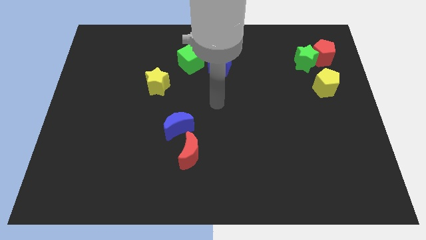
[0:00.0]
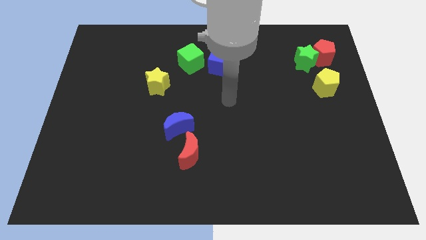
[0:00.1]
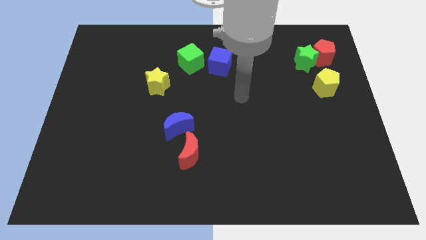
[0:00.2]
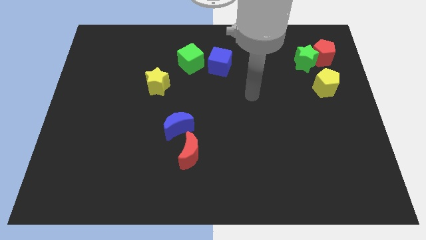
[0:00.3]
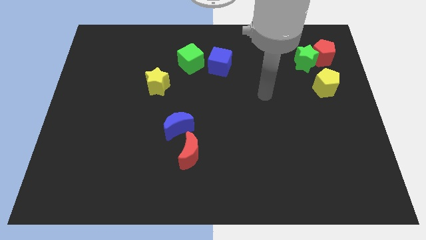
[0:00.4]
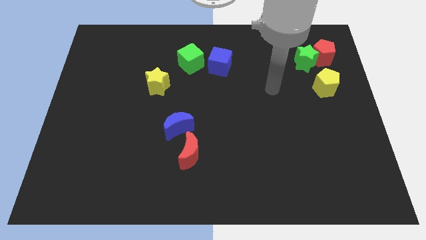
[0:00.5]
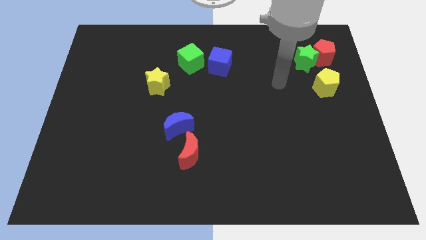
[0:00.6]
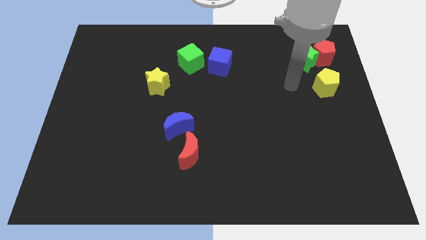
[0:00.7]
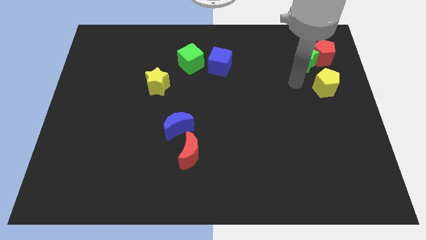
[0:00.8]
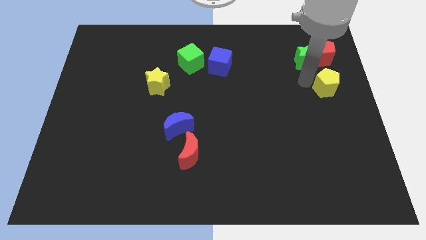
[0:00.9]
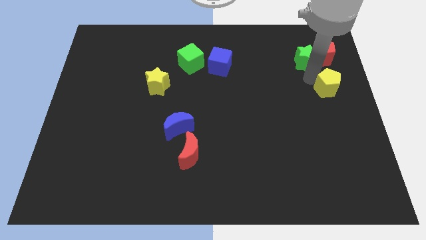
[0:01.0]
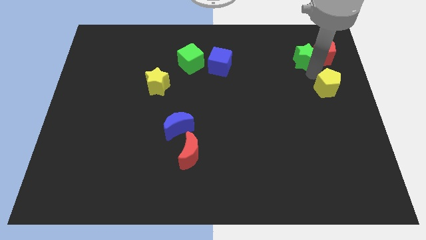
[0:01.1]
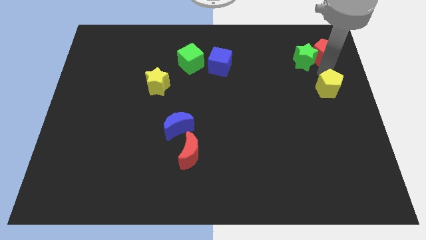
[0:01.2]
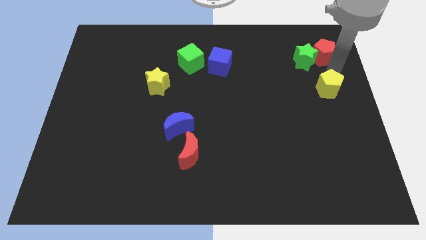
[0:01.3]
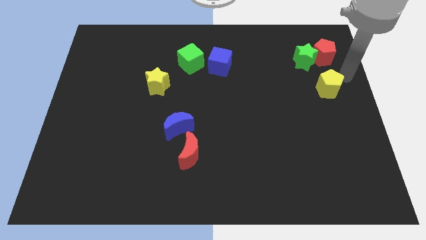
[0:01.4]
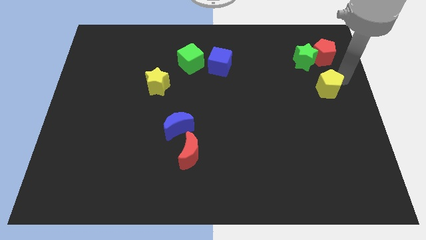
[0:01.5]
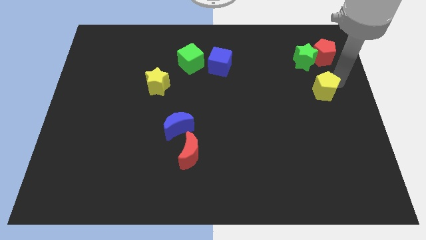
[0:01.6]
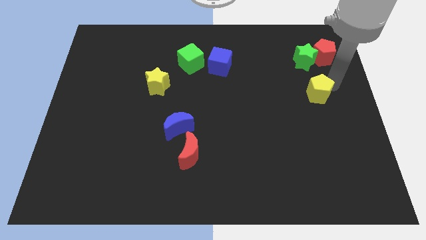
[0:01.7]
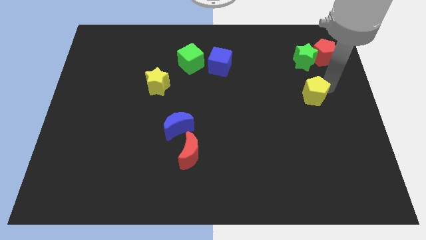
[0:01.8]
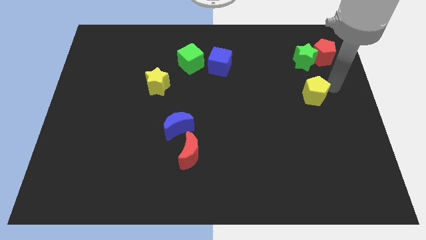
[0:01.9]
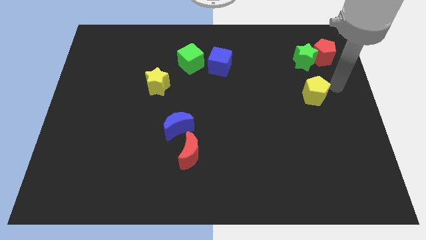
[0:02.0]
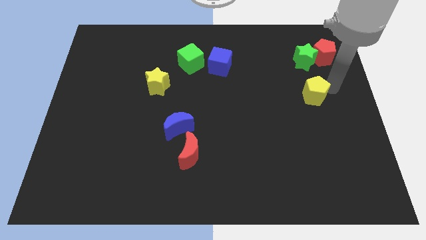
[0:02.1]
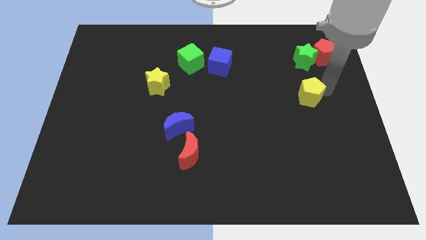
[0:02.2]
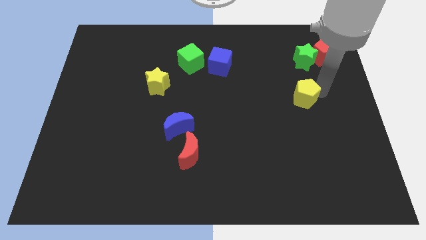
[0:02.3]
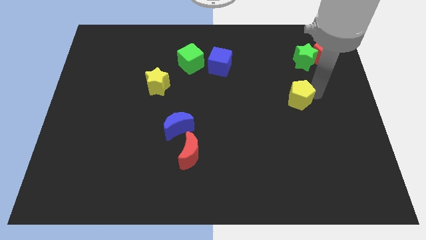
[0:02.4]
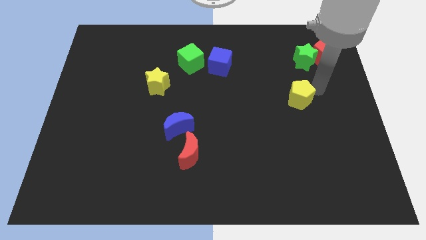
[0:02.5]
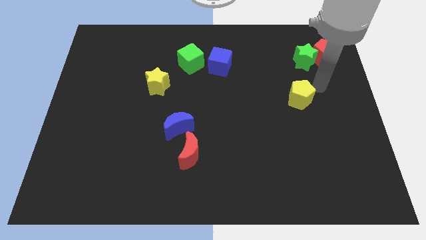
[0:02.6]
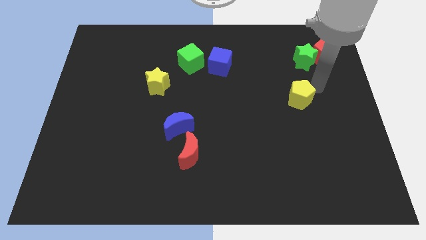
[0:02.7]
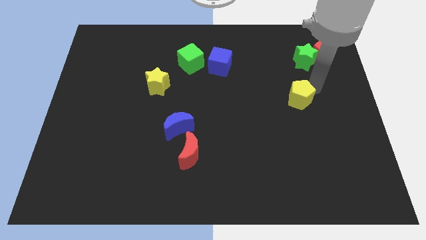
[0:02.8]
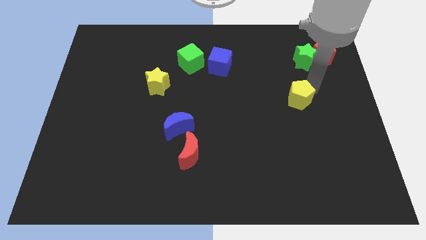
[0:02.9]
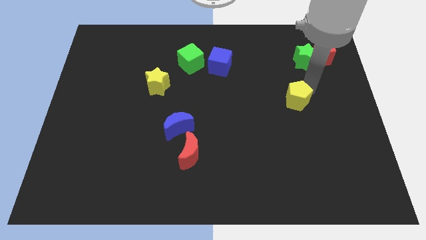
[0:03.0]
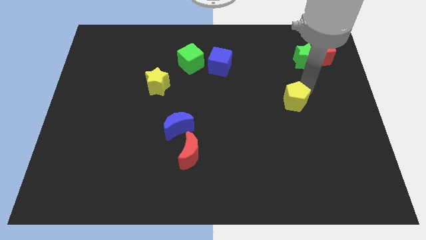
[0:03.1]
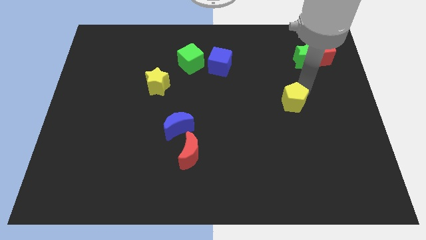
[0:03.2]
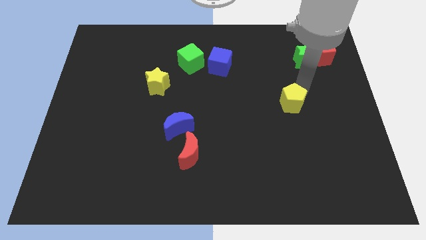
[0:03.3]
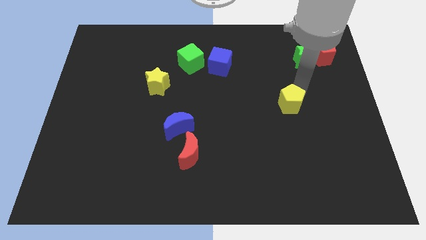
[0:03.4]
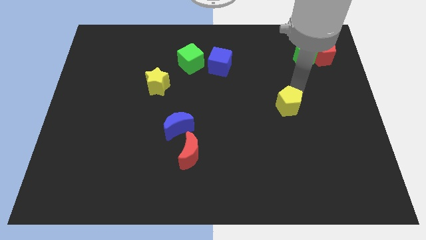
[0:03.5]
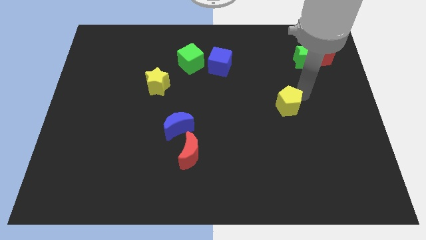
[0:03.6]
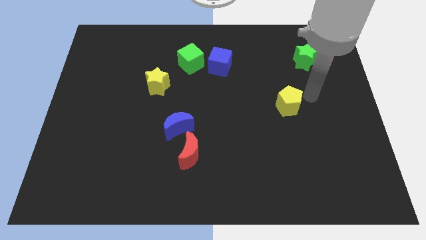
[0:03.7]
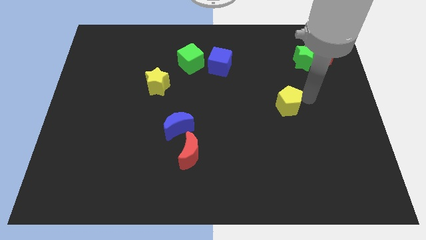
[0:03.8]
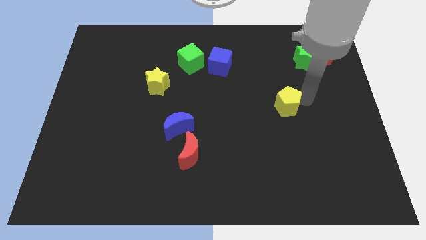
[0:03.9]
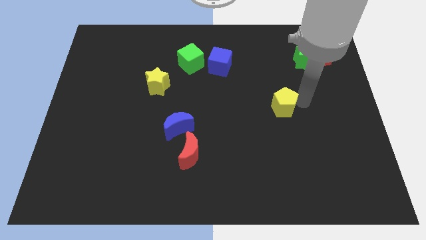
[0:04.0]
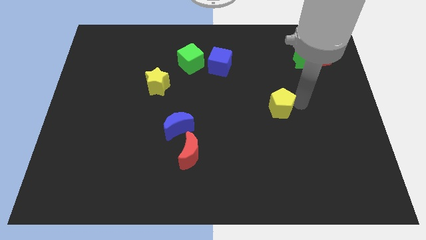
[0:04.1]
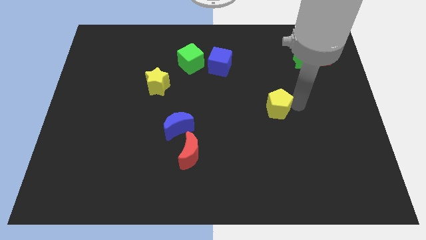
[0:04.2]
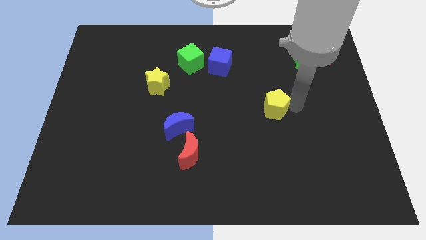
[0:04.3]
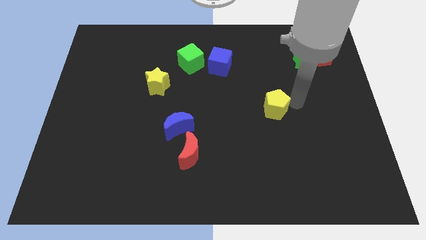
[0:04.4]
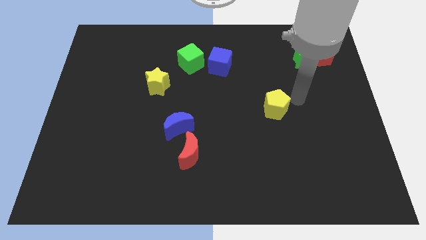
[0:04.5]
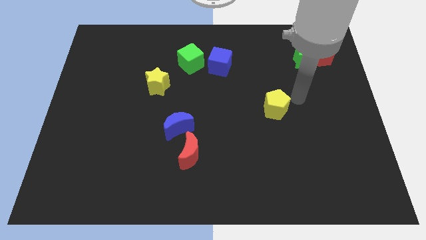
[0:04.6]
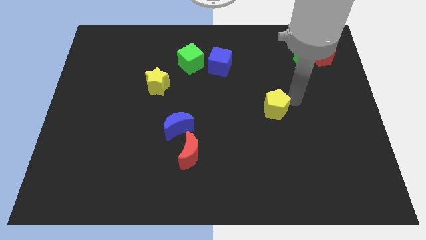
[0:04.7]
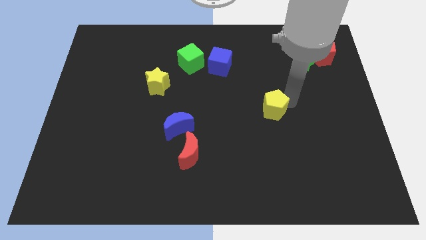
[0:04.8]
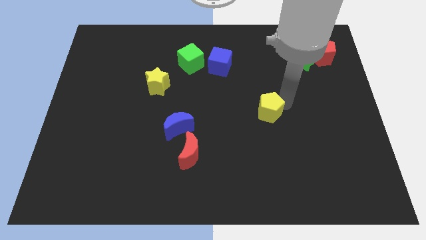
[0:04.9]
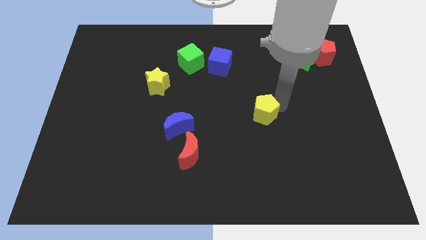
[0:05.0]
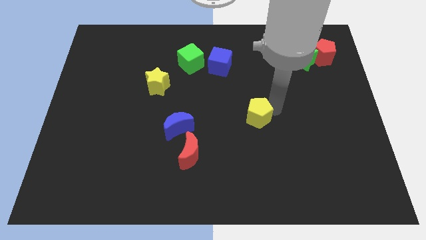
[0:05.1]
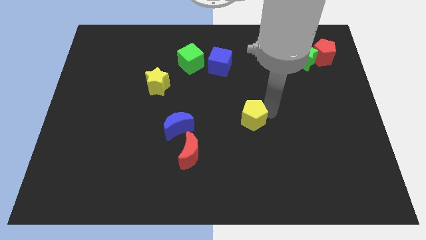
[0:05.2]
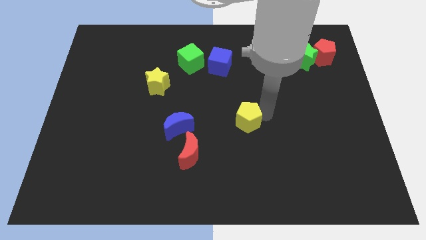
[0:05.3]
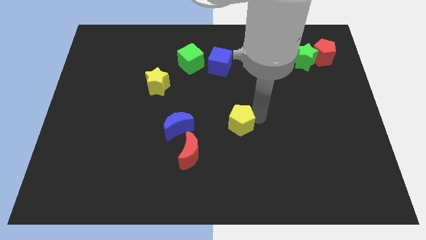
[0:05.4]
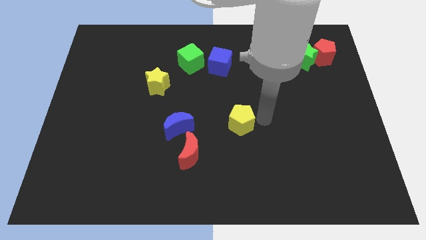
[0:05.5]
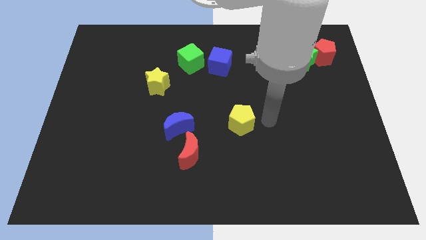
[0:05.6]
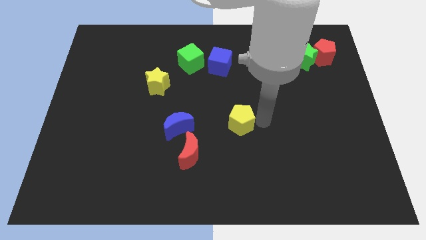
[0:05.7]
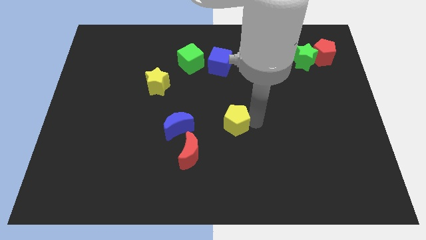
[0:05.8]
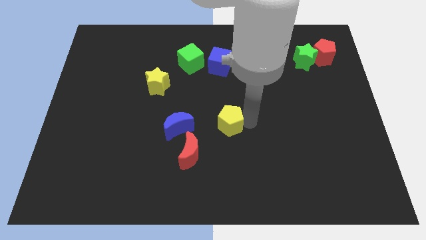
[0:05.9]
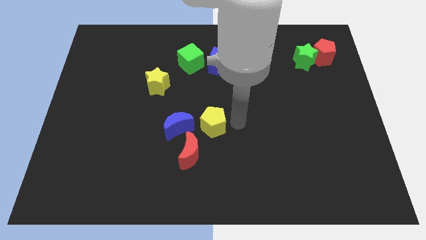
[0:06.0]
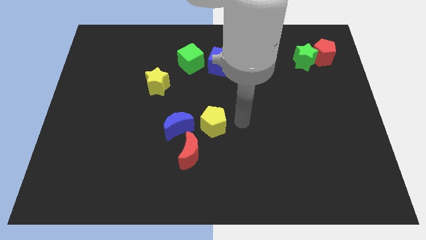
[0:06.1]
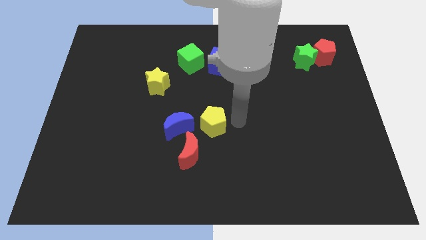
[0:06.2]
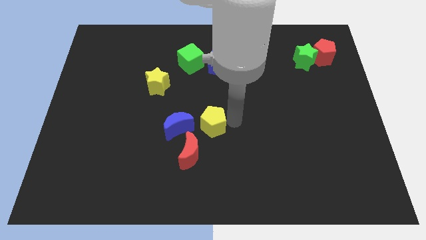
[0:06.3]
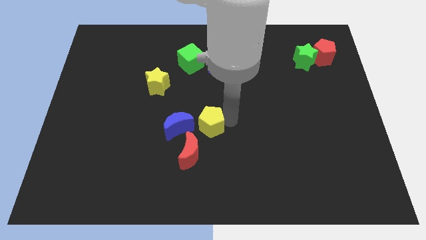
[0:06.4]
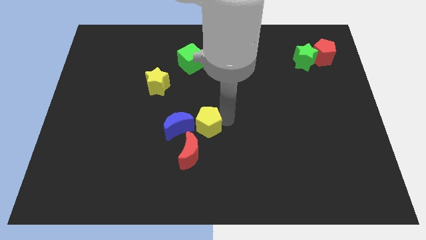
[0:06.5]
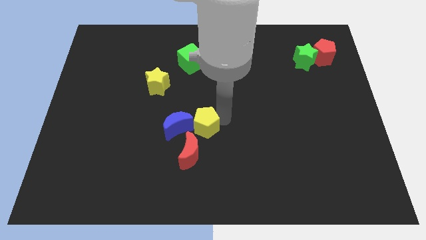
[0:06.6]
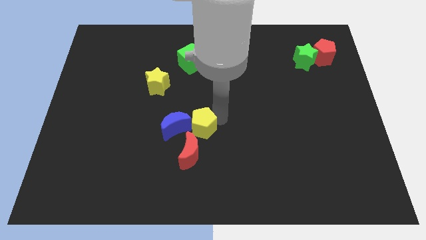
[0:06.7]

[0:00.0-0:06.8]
push the yellow pentagon close to the blue moon

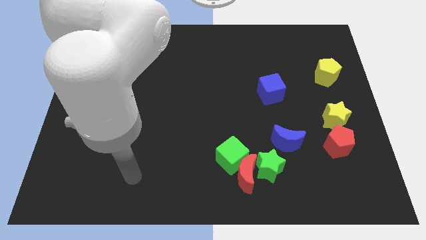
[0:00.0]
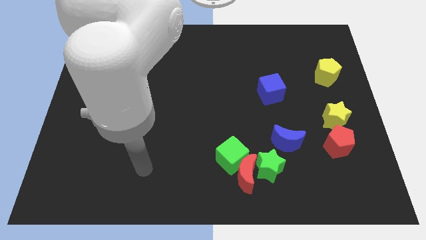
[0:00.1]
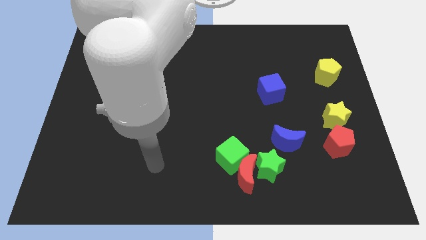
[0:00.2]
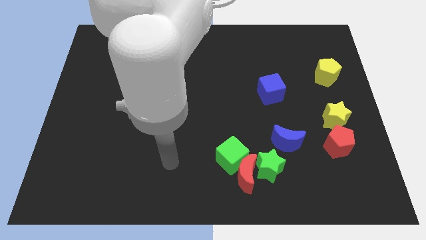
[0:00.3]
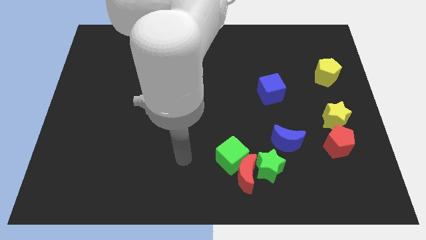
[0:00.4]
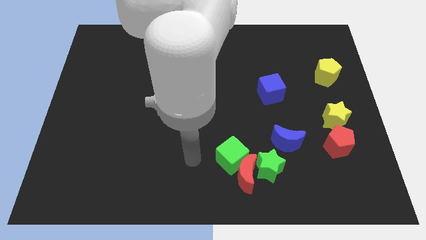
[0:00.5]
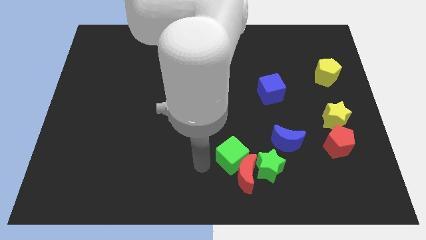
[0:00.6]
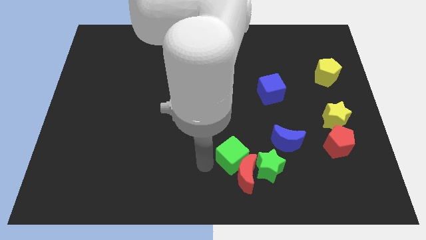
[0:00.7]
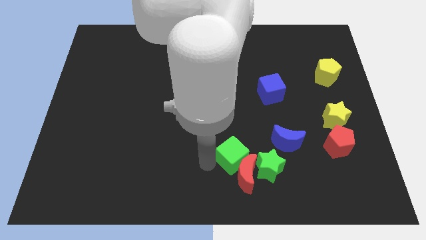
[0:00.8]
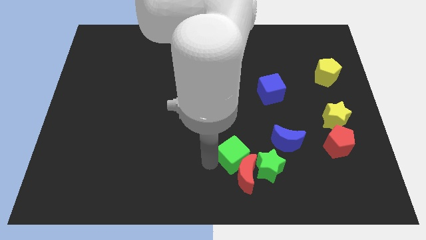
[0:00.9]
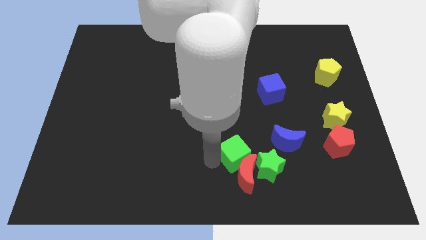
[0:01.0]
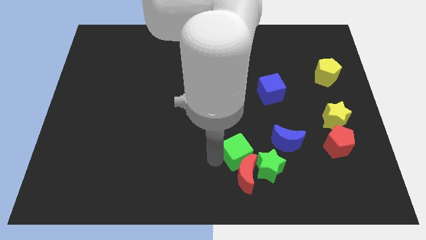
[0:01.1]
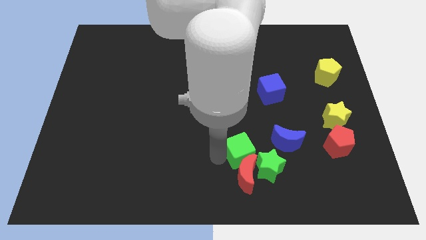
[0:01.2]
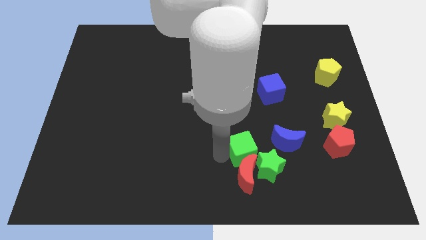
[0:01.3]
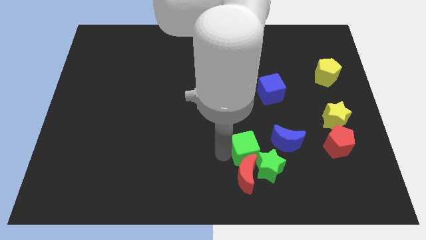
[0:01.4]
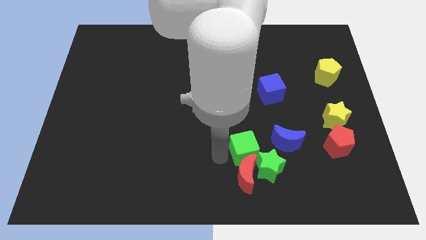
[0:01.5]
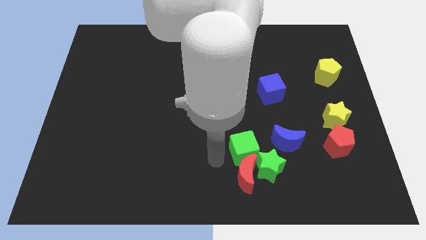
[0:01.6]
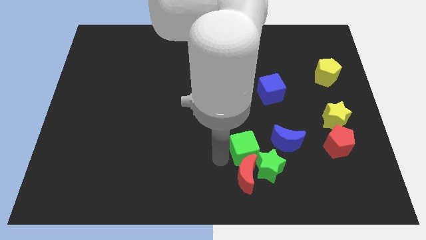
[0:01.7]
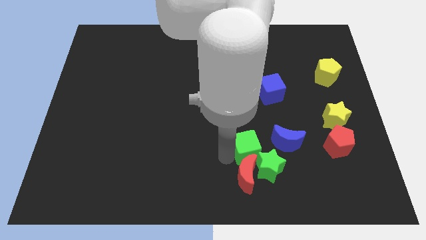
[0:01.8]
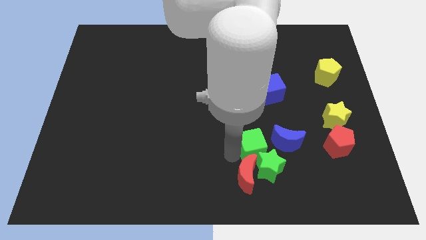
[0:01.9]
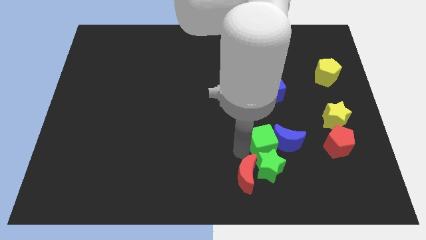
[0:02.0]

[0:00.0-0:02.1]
put the green cube next to the blue moon
